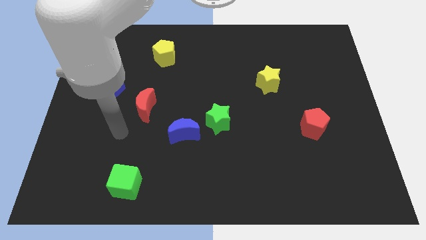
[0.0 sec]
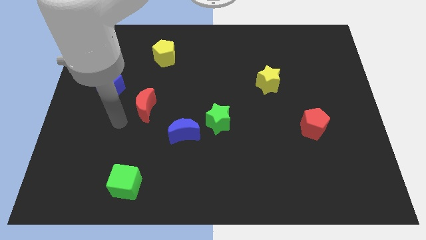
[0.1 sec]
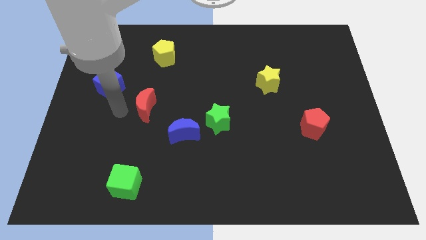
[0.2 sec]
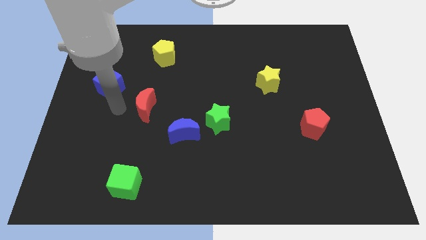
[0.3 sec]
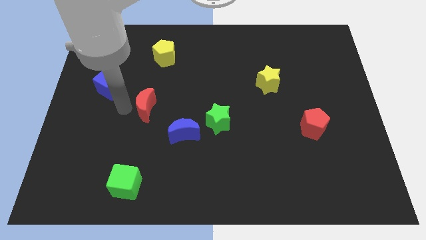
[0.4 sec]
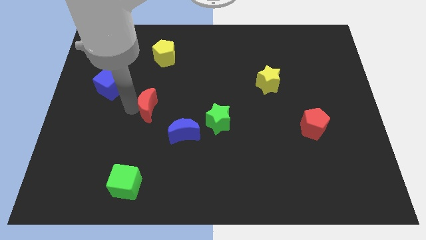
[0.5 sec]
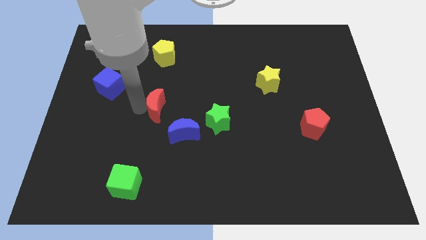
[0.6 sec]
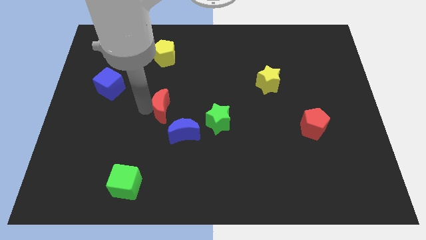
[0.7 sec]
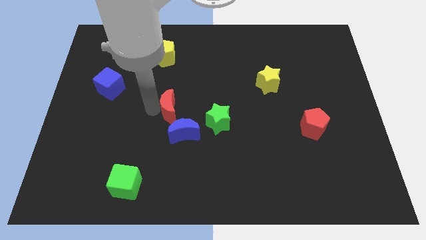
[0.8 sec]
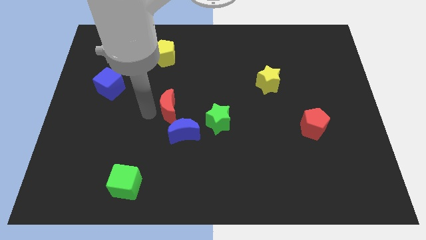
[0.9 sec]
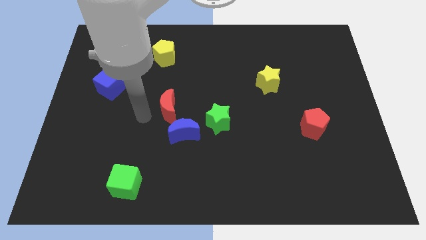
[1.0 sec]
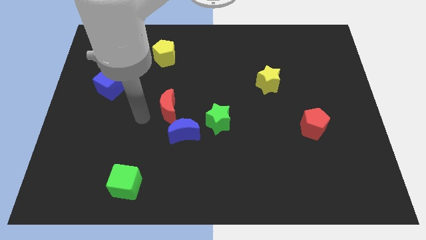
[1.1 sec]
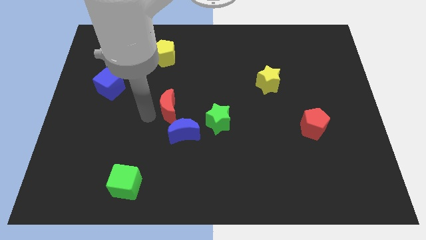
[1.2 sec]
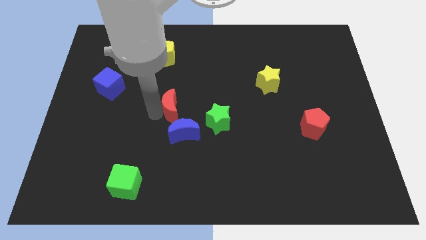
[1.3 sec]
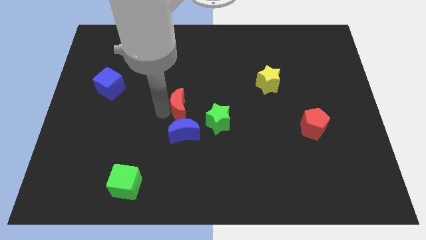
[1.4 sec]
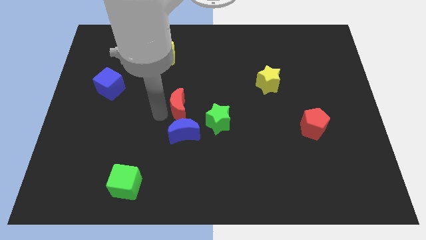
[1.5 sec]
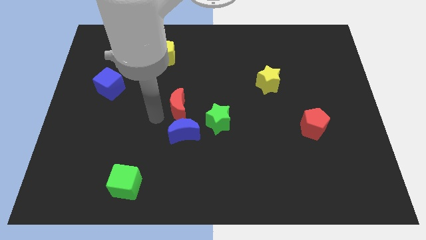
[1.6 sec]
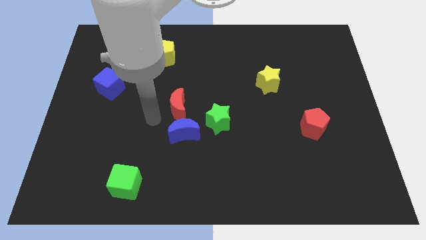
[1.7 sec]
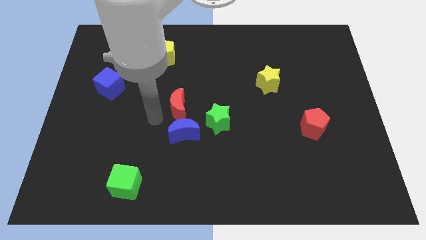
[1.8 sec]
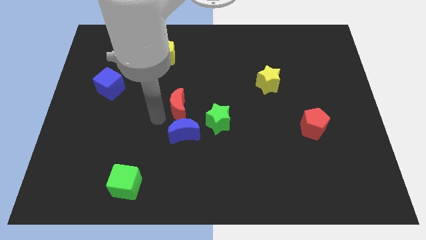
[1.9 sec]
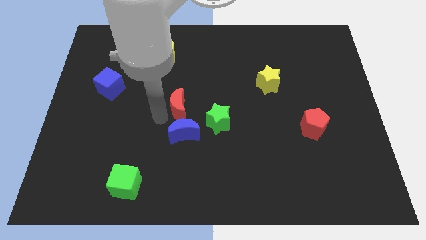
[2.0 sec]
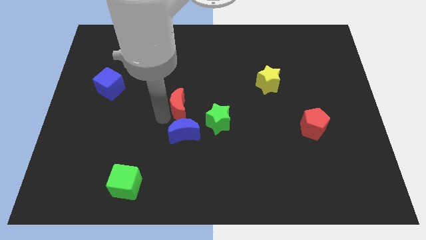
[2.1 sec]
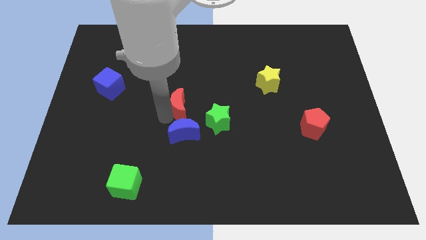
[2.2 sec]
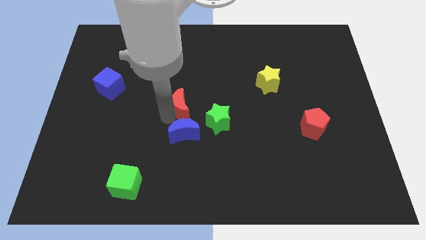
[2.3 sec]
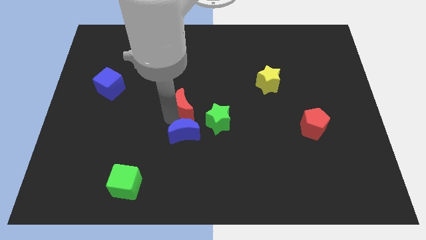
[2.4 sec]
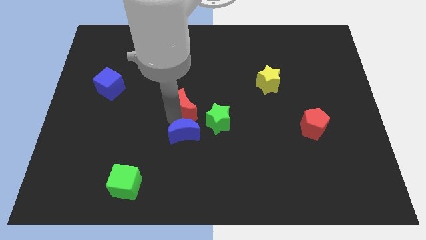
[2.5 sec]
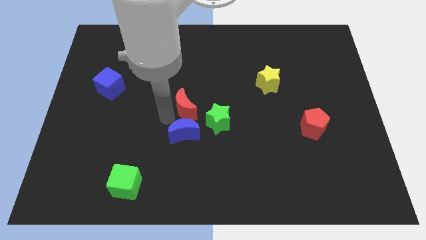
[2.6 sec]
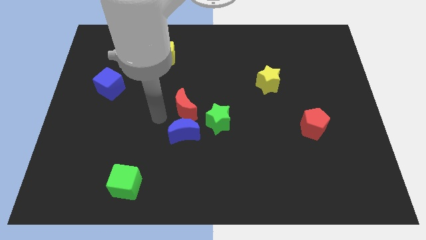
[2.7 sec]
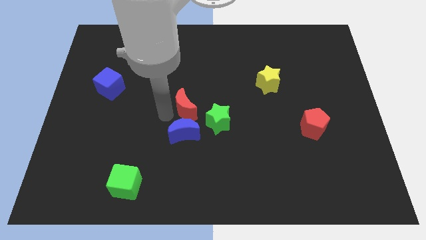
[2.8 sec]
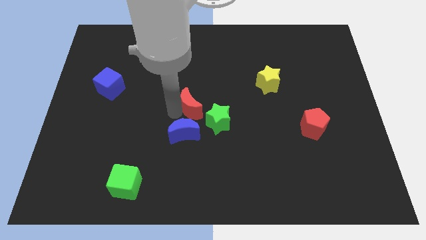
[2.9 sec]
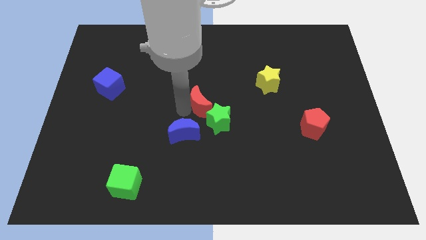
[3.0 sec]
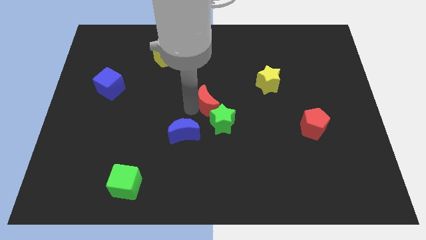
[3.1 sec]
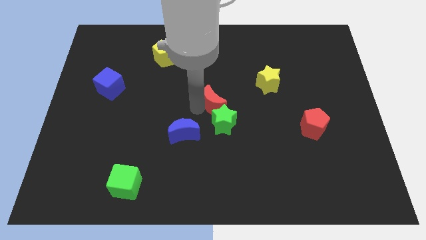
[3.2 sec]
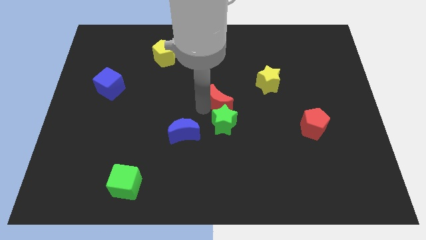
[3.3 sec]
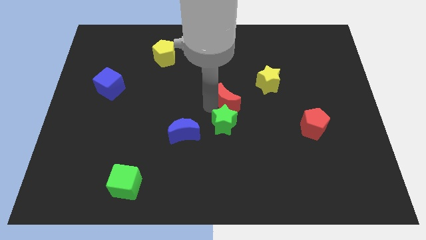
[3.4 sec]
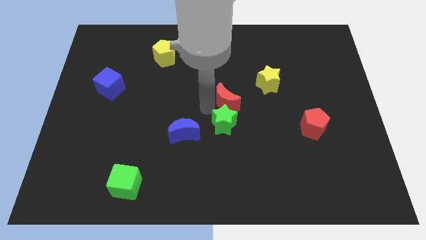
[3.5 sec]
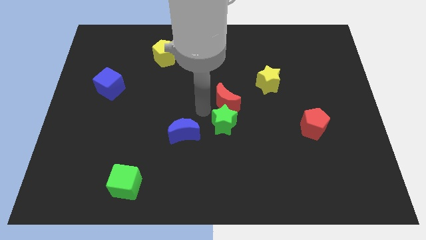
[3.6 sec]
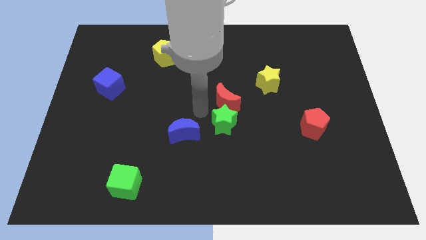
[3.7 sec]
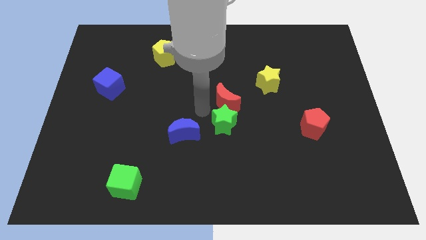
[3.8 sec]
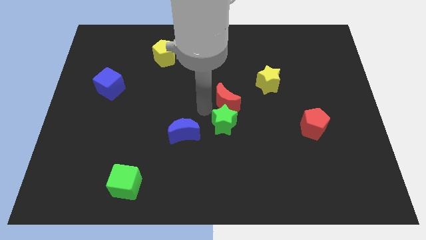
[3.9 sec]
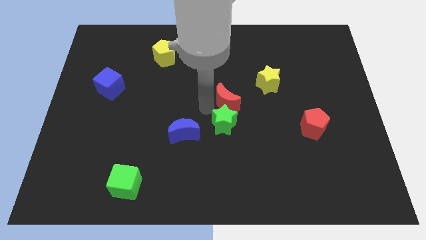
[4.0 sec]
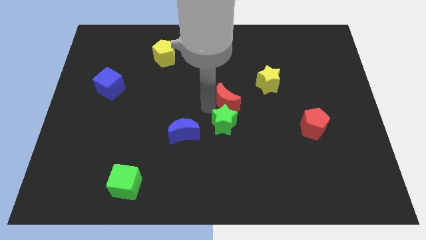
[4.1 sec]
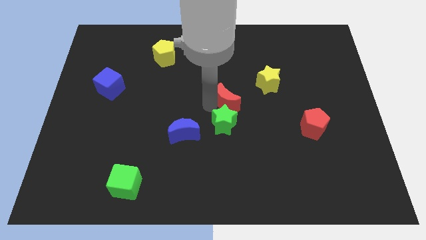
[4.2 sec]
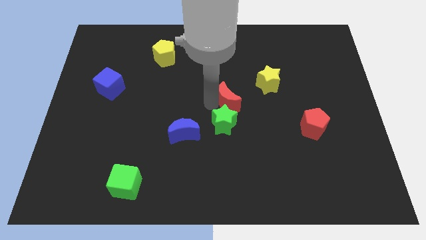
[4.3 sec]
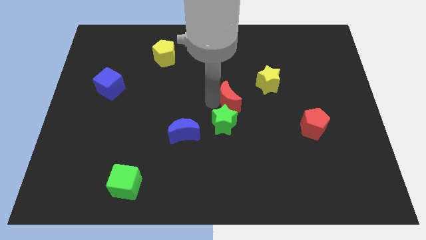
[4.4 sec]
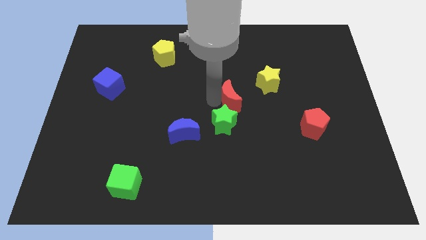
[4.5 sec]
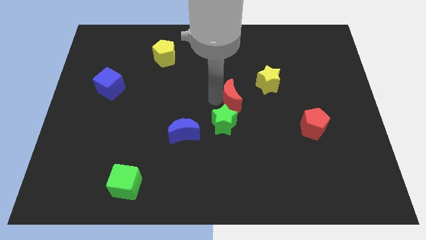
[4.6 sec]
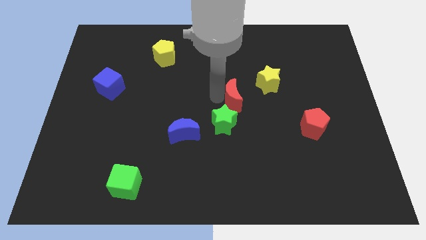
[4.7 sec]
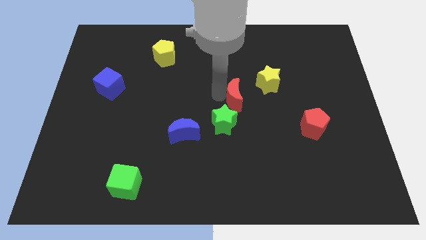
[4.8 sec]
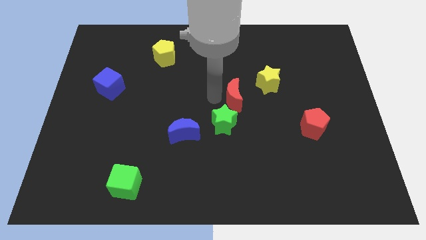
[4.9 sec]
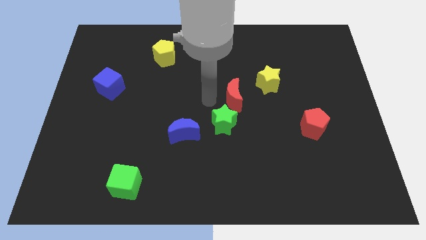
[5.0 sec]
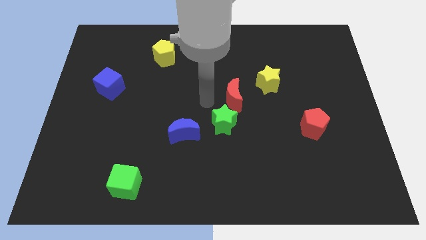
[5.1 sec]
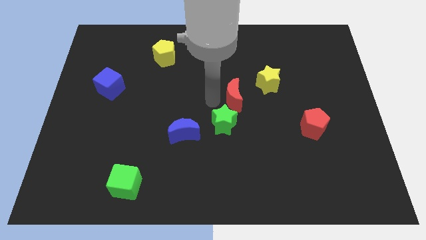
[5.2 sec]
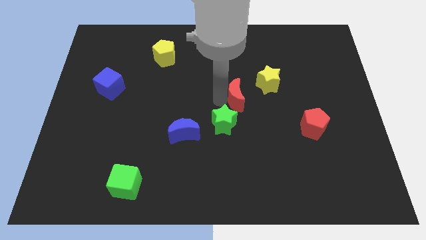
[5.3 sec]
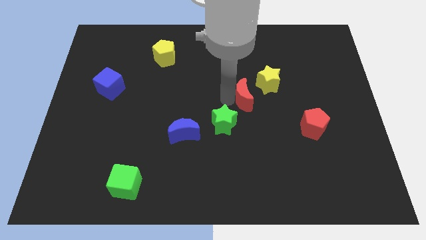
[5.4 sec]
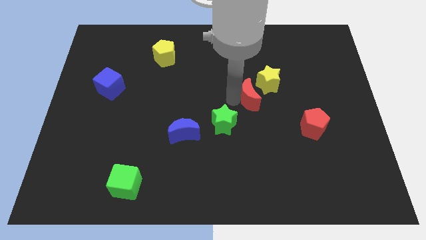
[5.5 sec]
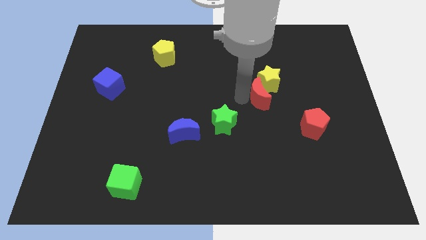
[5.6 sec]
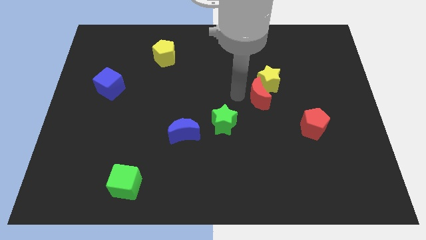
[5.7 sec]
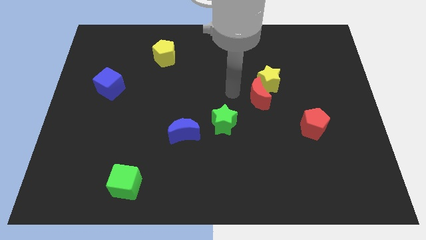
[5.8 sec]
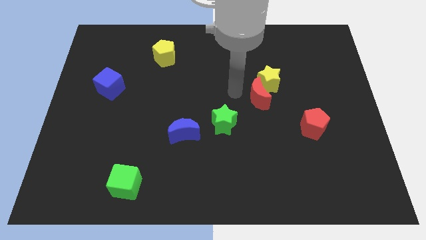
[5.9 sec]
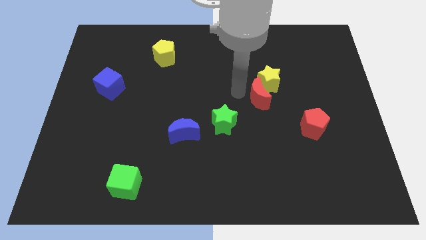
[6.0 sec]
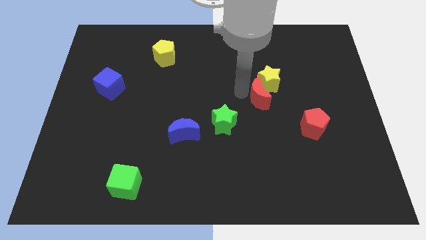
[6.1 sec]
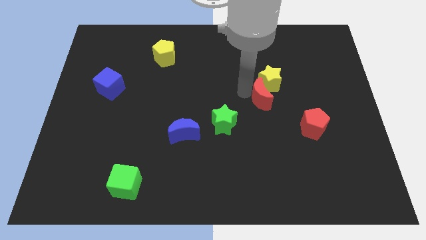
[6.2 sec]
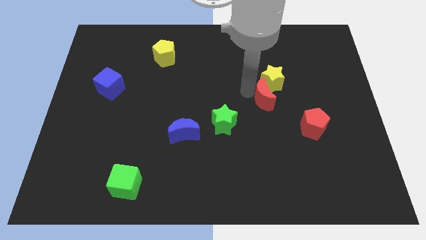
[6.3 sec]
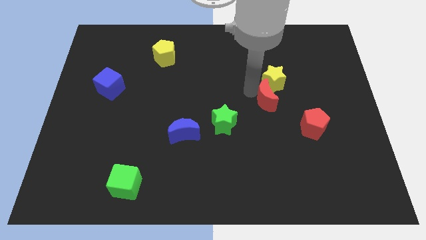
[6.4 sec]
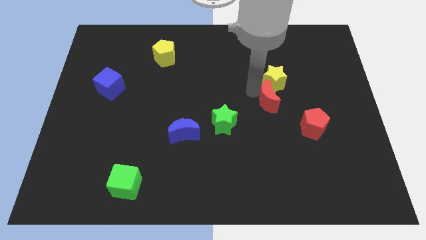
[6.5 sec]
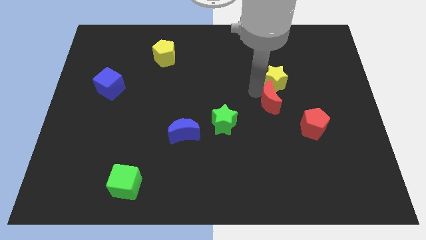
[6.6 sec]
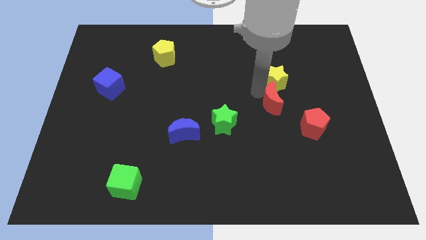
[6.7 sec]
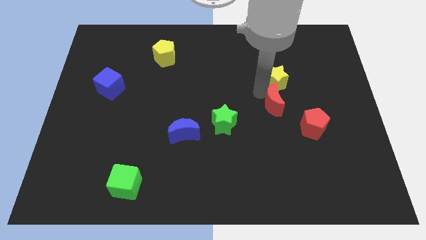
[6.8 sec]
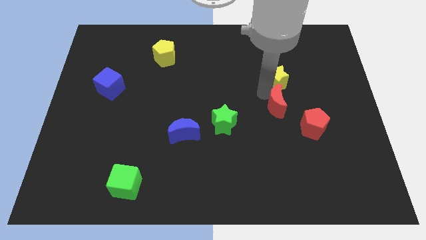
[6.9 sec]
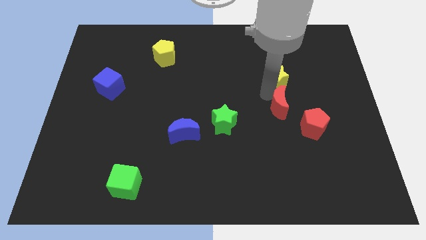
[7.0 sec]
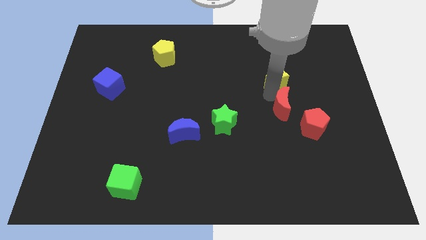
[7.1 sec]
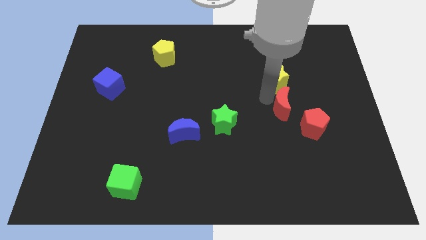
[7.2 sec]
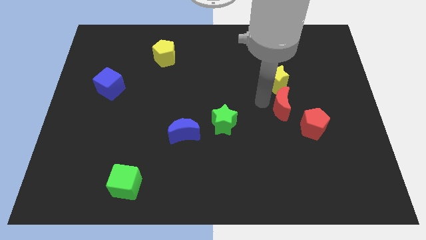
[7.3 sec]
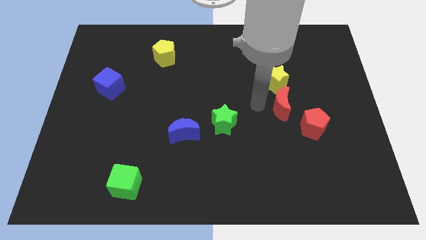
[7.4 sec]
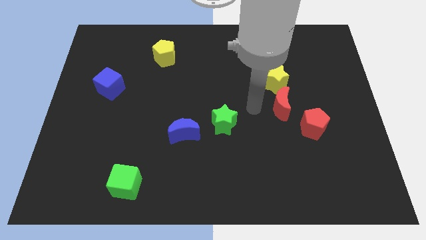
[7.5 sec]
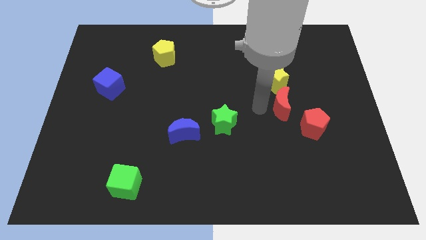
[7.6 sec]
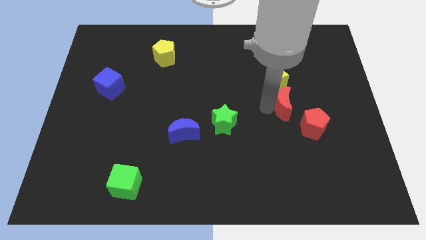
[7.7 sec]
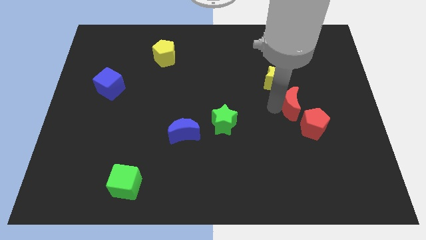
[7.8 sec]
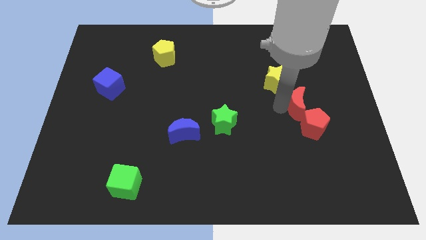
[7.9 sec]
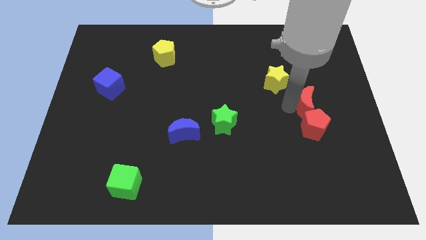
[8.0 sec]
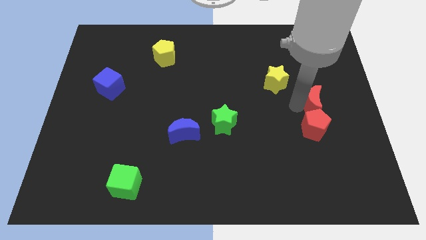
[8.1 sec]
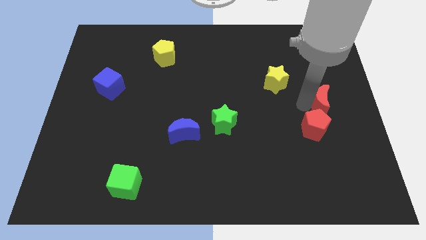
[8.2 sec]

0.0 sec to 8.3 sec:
put the red moon to the right side
